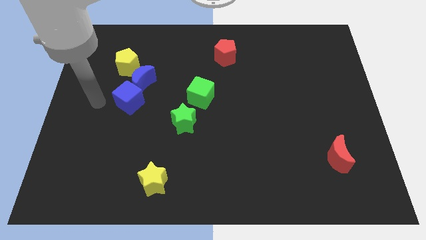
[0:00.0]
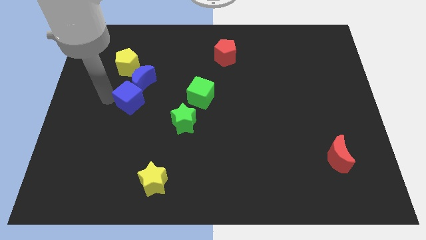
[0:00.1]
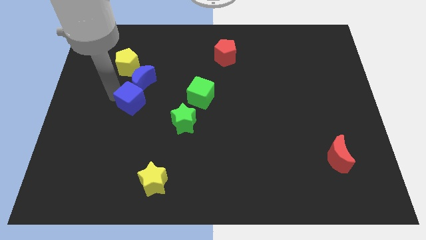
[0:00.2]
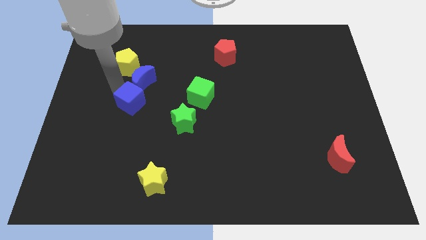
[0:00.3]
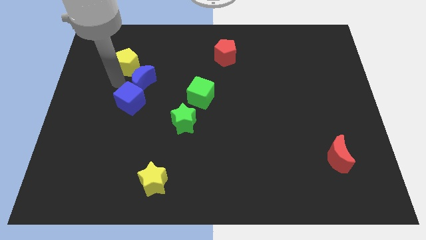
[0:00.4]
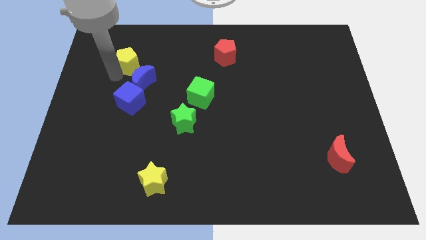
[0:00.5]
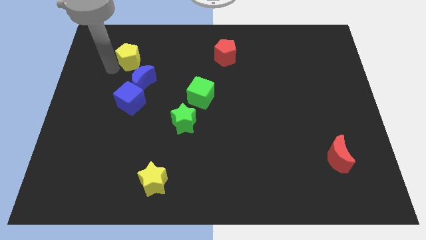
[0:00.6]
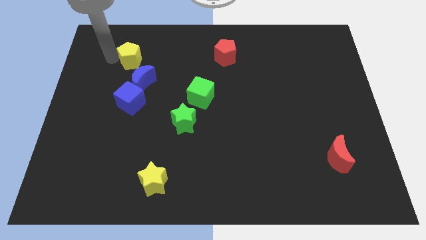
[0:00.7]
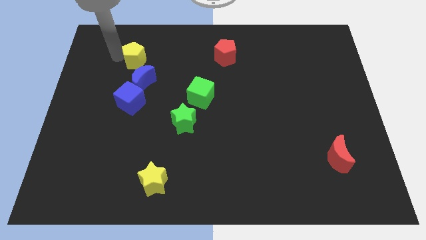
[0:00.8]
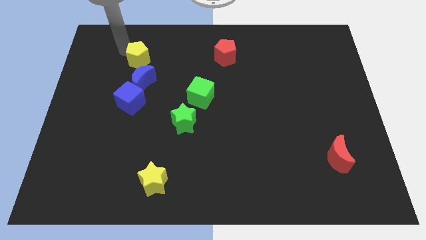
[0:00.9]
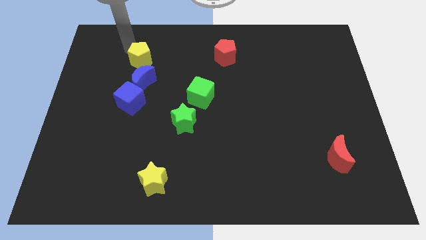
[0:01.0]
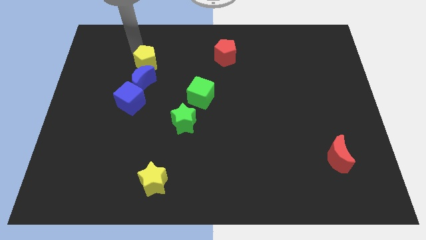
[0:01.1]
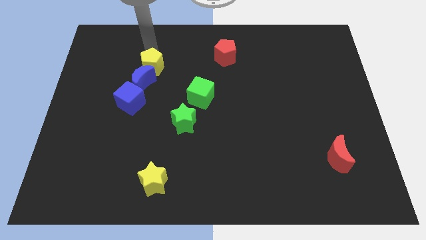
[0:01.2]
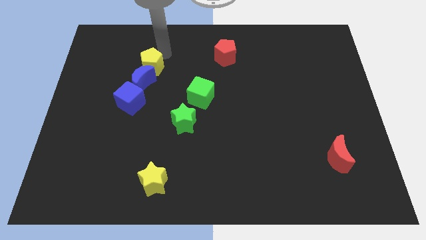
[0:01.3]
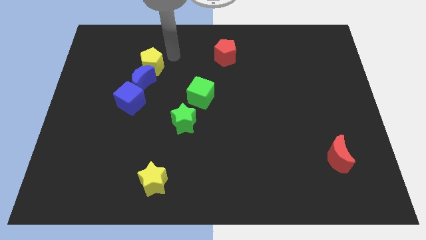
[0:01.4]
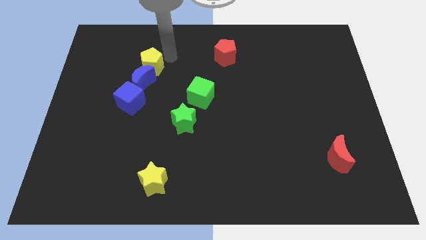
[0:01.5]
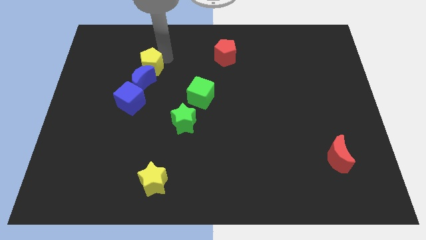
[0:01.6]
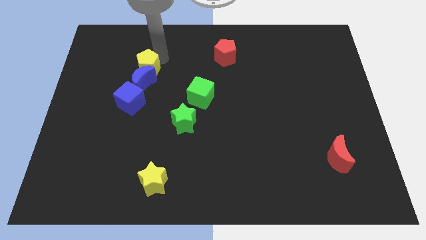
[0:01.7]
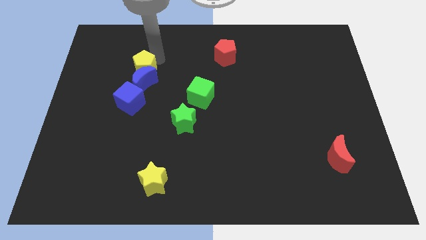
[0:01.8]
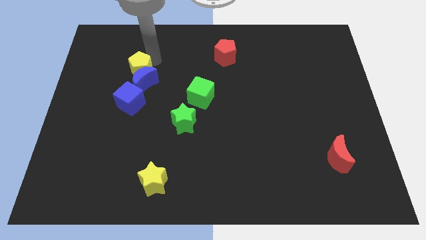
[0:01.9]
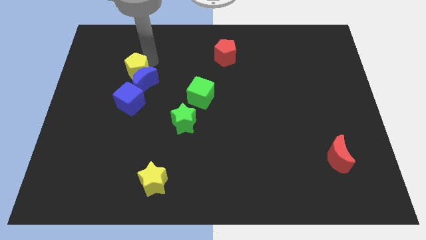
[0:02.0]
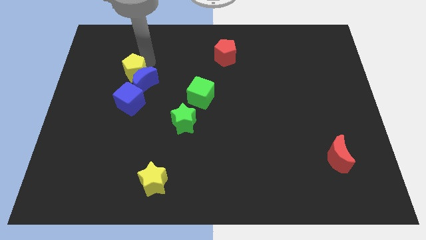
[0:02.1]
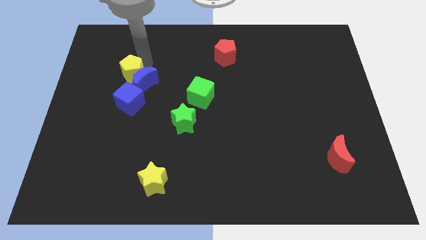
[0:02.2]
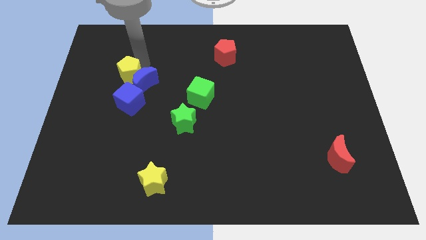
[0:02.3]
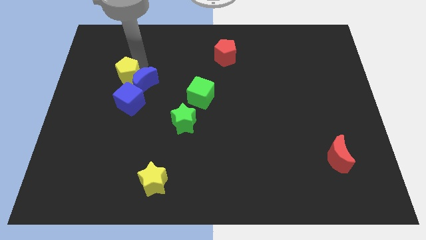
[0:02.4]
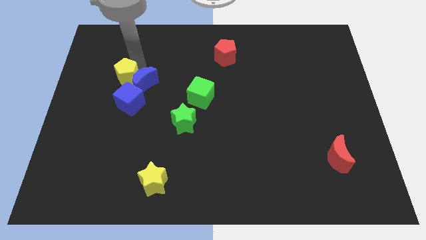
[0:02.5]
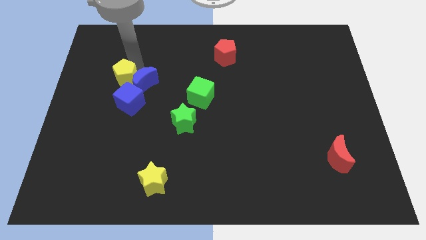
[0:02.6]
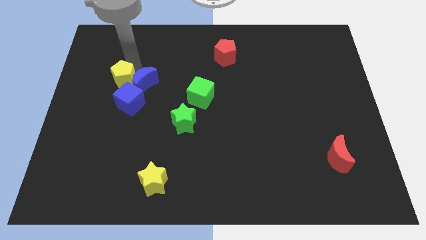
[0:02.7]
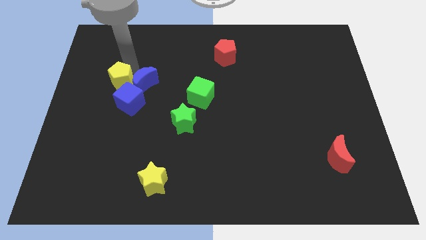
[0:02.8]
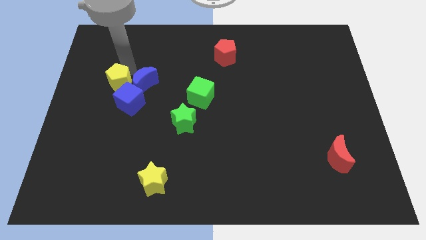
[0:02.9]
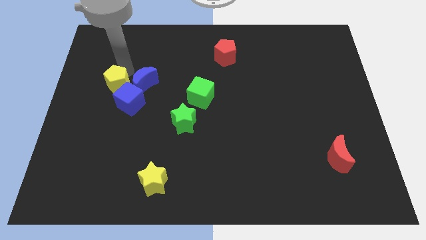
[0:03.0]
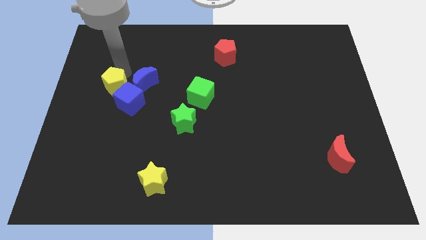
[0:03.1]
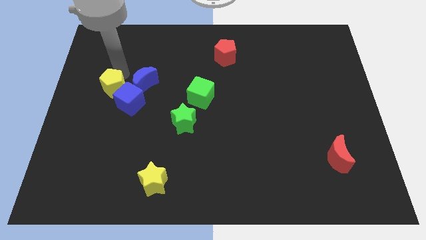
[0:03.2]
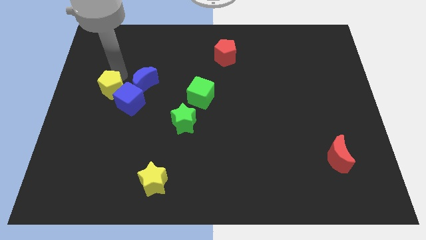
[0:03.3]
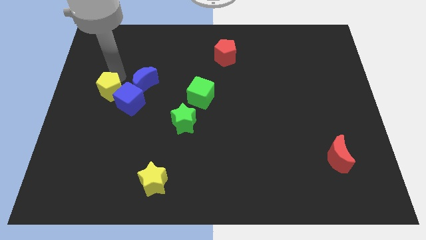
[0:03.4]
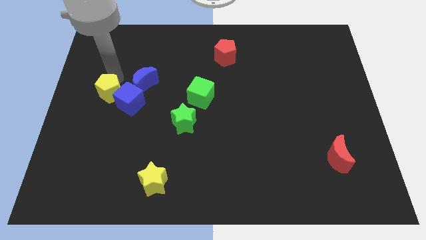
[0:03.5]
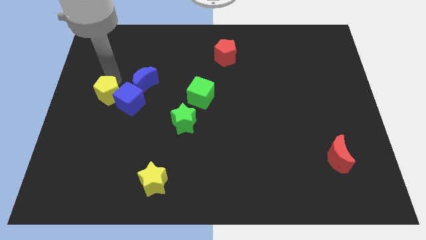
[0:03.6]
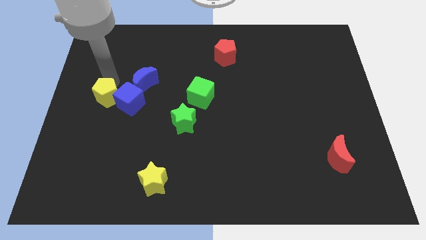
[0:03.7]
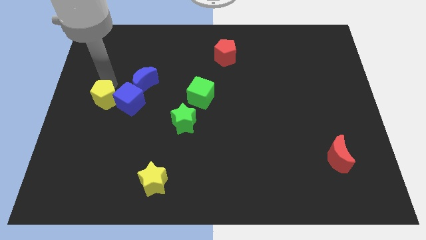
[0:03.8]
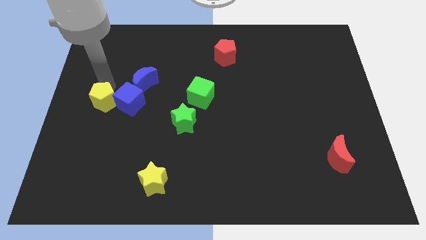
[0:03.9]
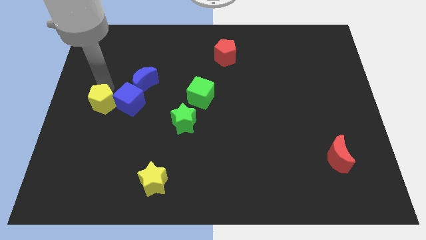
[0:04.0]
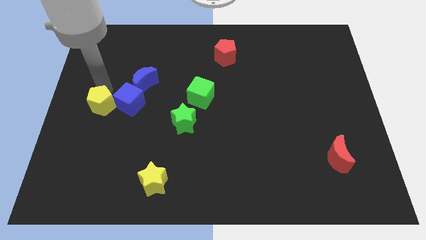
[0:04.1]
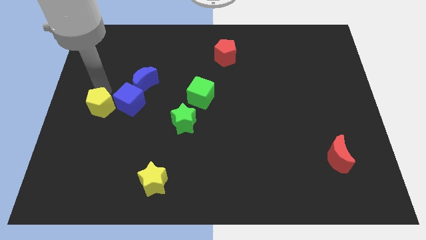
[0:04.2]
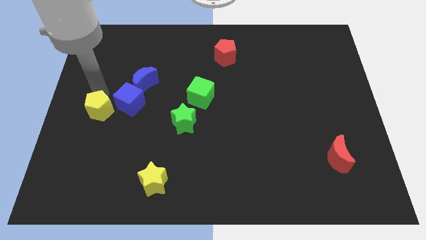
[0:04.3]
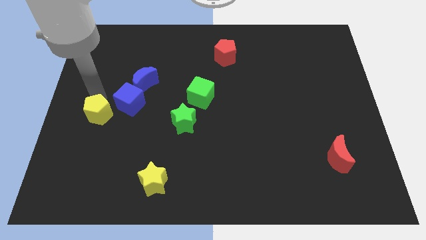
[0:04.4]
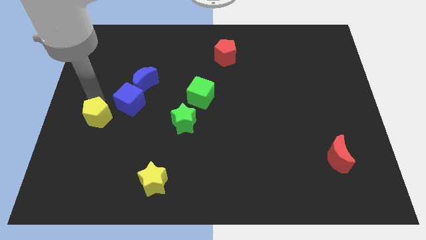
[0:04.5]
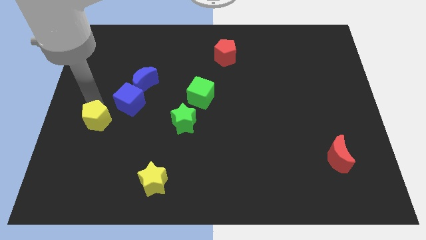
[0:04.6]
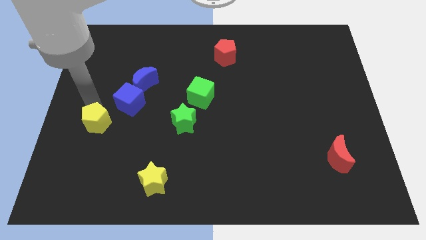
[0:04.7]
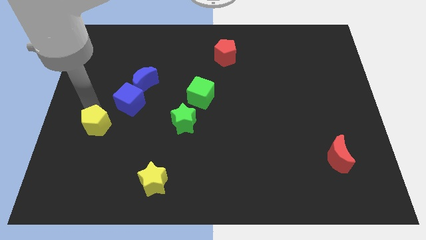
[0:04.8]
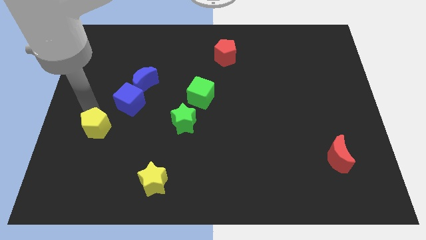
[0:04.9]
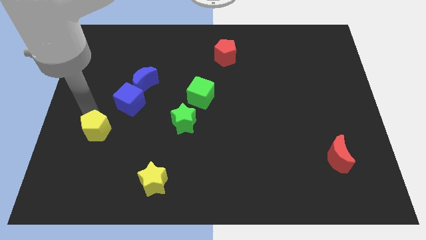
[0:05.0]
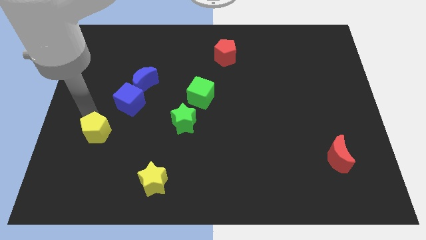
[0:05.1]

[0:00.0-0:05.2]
slide the yellow pentagon down

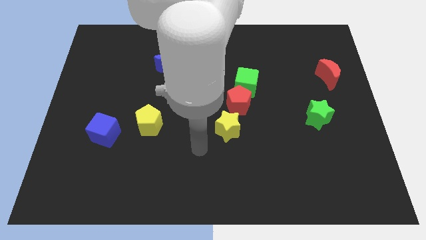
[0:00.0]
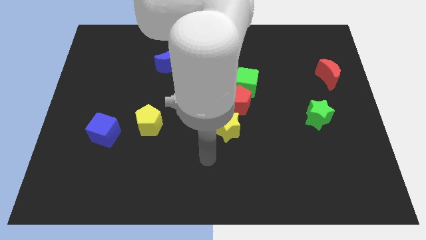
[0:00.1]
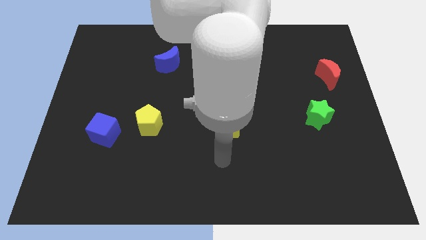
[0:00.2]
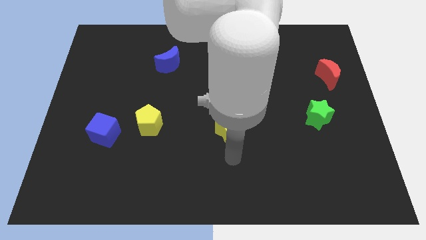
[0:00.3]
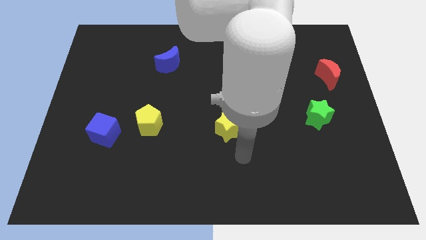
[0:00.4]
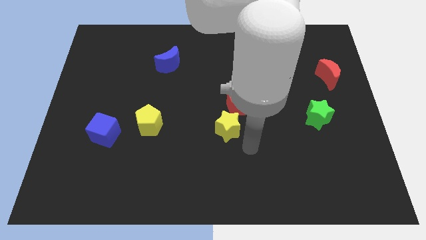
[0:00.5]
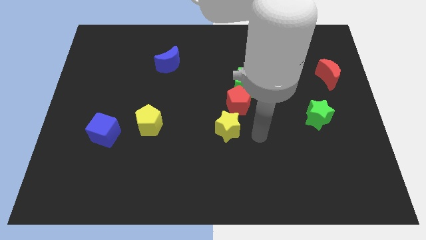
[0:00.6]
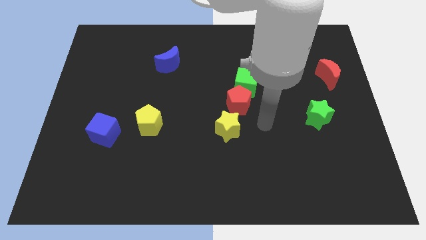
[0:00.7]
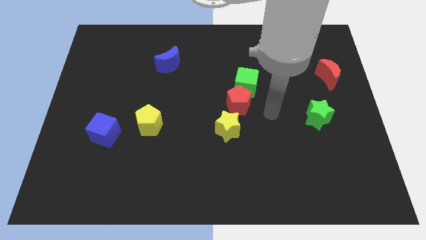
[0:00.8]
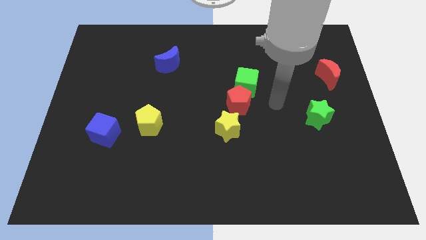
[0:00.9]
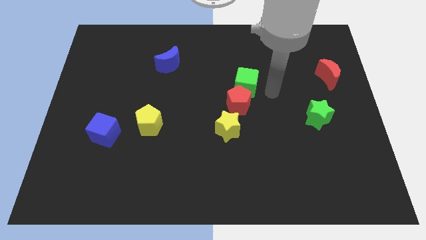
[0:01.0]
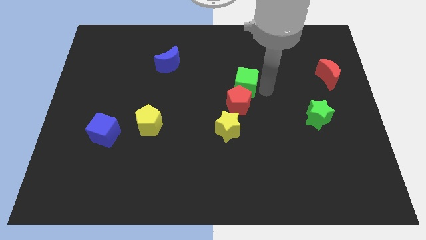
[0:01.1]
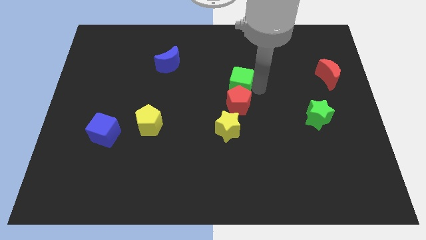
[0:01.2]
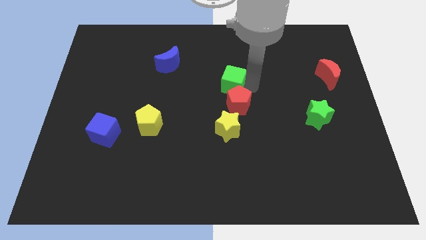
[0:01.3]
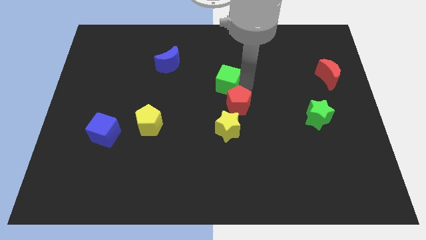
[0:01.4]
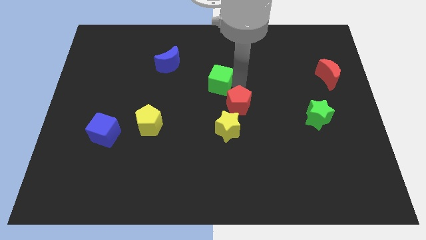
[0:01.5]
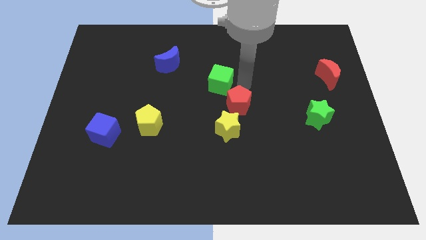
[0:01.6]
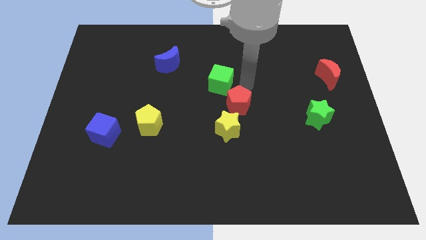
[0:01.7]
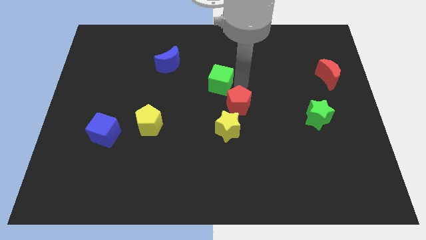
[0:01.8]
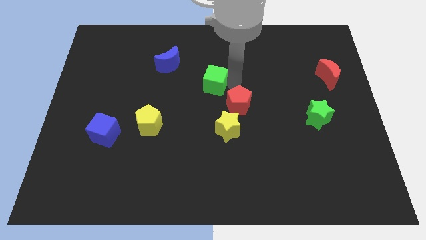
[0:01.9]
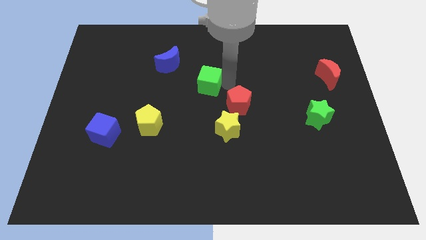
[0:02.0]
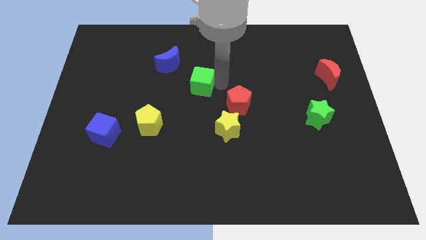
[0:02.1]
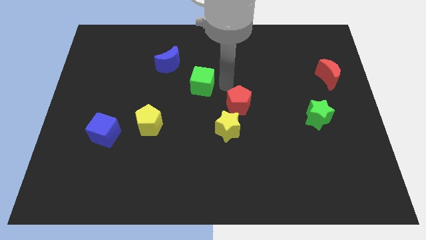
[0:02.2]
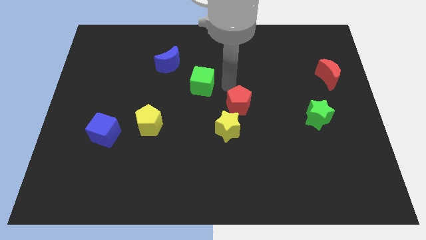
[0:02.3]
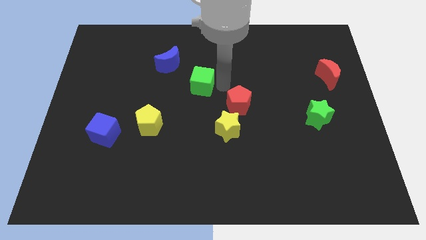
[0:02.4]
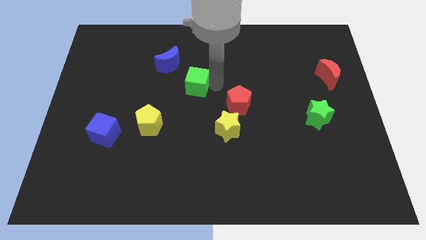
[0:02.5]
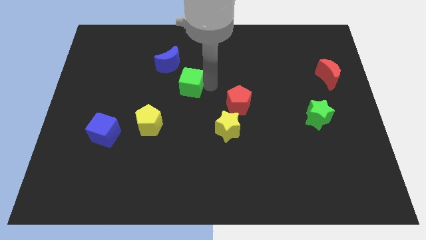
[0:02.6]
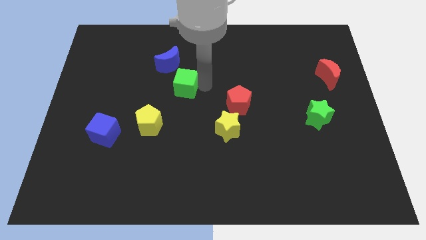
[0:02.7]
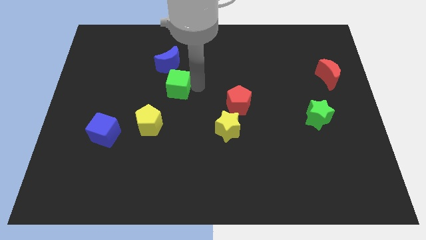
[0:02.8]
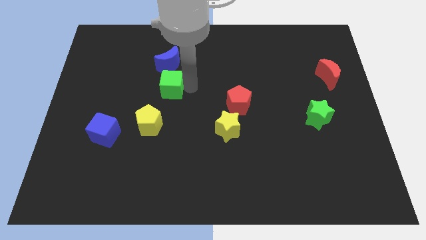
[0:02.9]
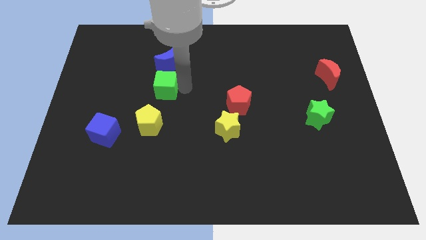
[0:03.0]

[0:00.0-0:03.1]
slide the green cube left
